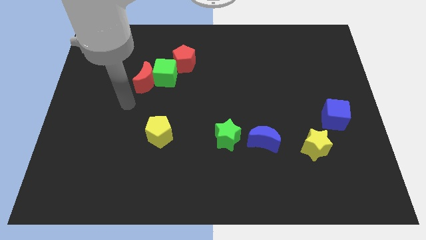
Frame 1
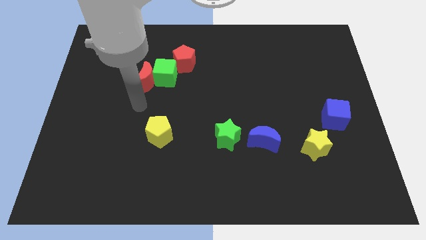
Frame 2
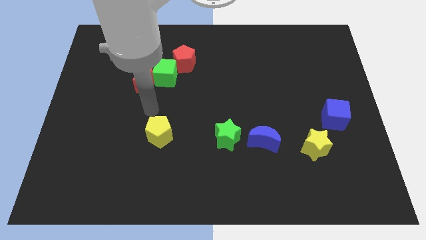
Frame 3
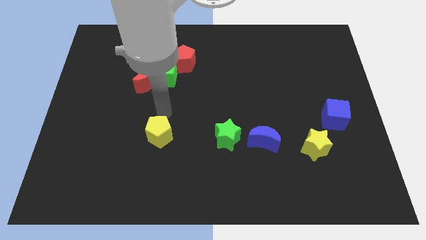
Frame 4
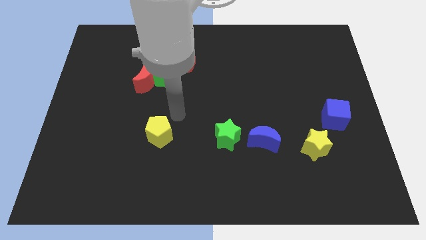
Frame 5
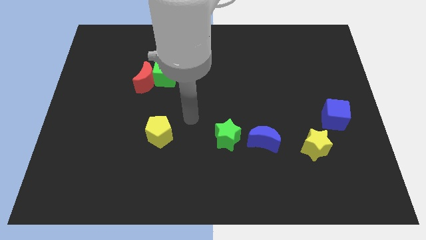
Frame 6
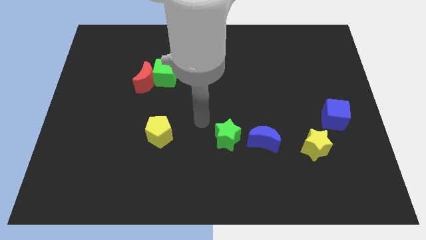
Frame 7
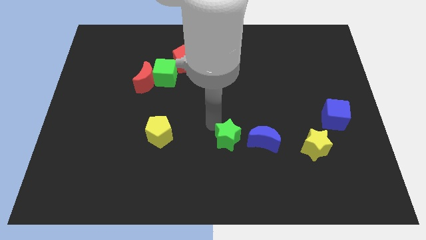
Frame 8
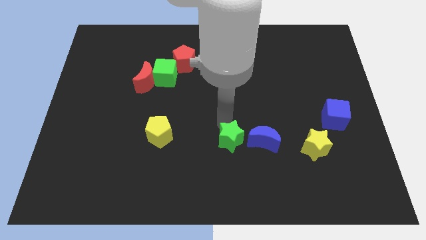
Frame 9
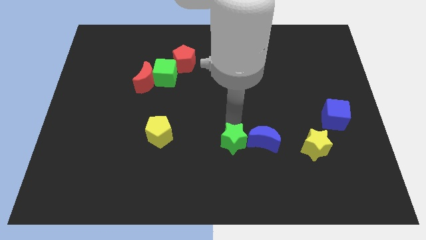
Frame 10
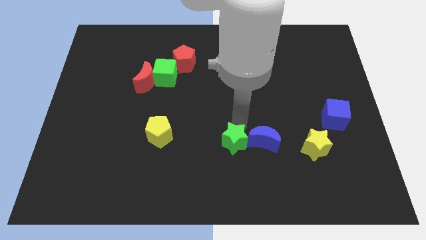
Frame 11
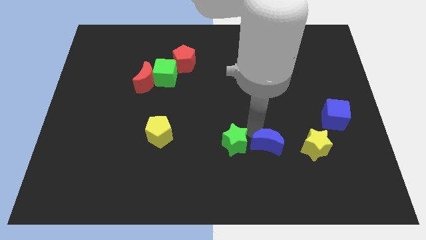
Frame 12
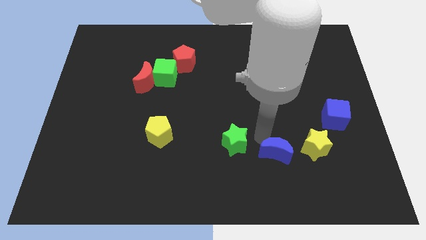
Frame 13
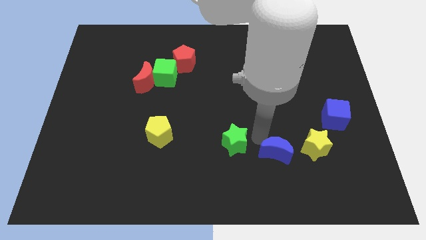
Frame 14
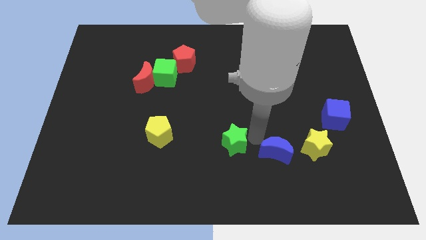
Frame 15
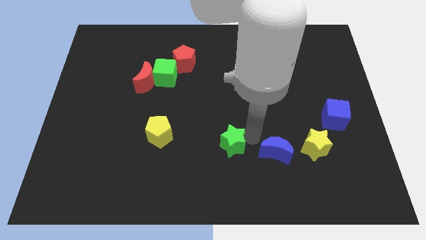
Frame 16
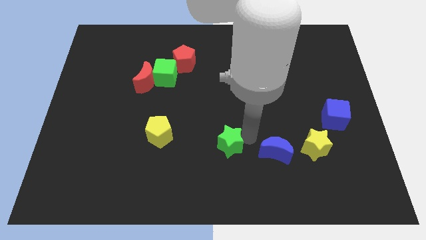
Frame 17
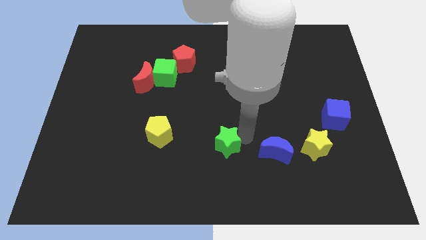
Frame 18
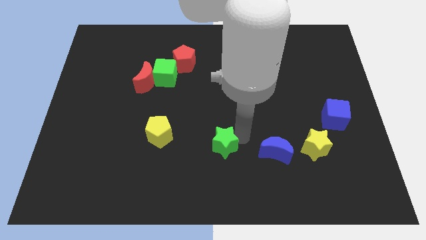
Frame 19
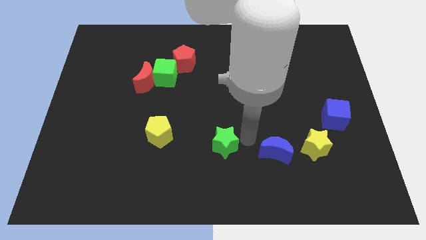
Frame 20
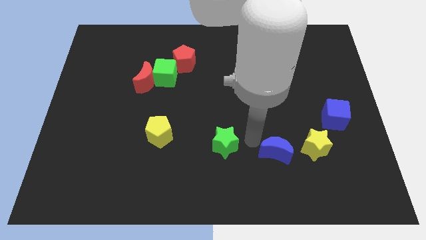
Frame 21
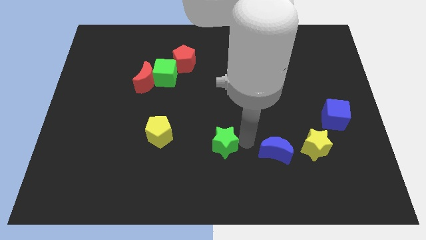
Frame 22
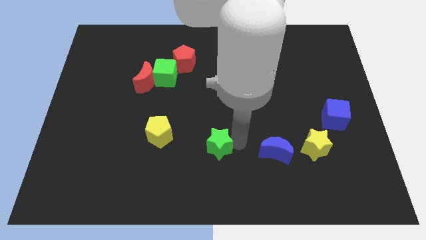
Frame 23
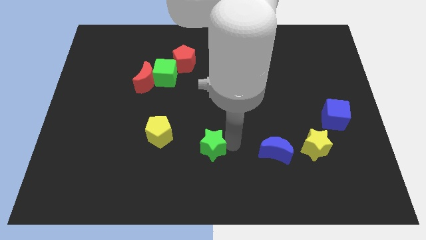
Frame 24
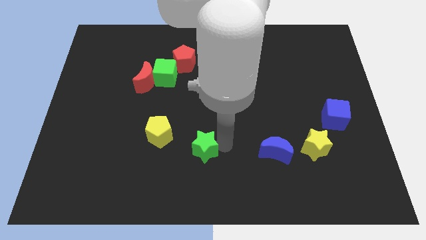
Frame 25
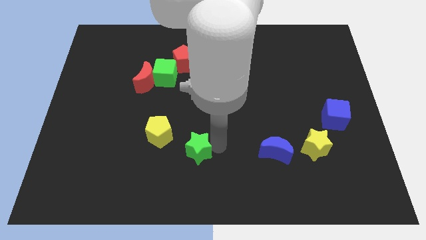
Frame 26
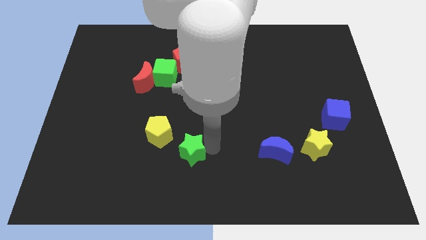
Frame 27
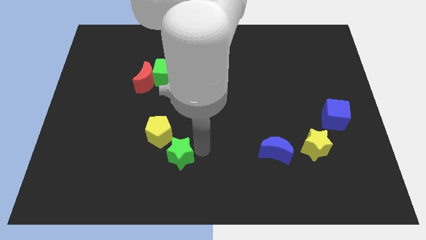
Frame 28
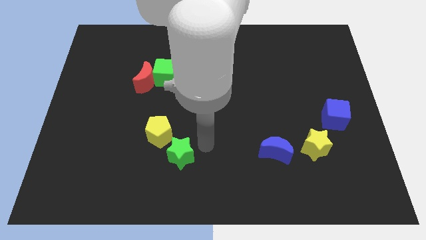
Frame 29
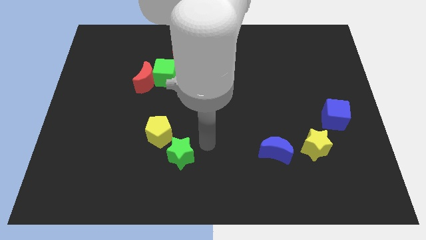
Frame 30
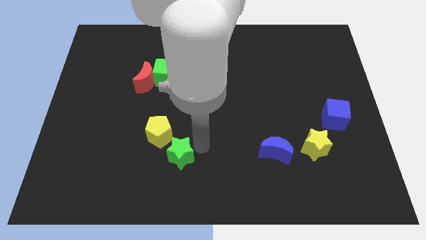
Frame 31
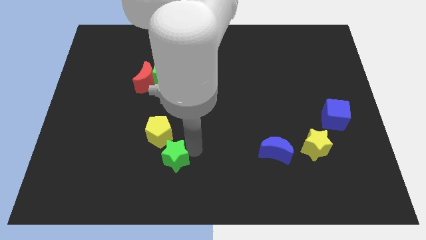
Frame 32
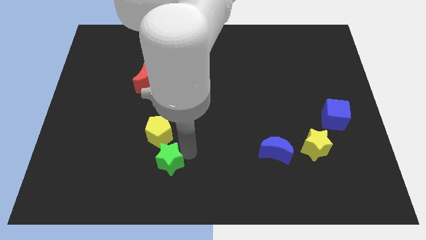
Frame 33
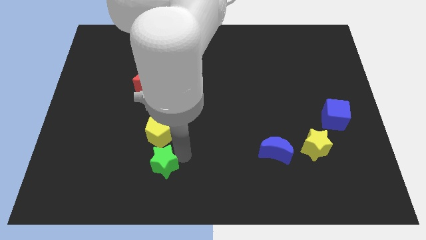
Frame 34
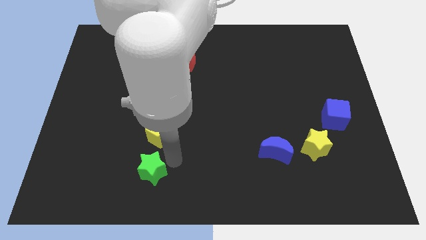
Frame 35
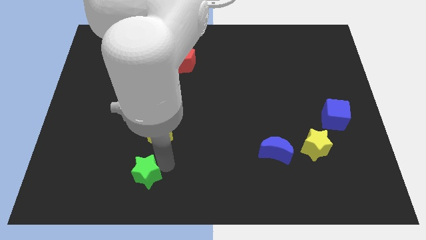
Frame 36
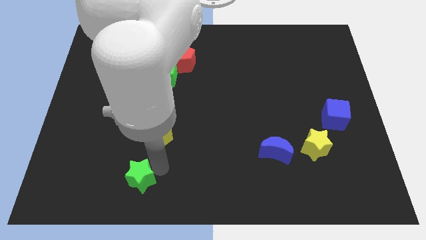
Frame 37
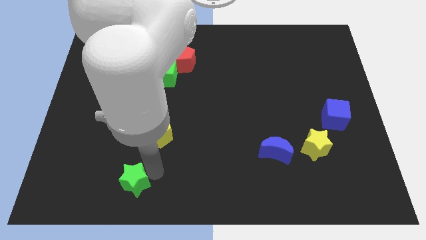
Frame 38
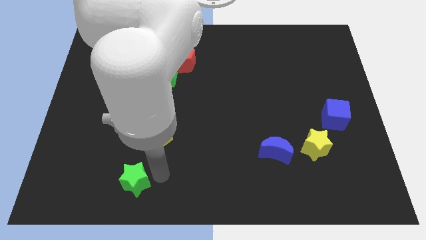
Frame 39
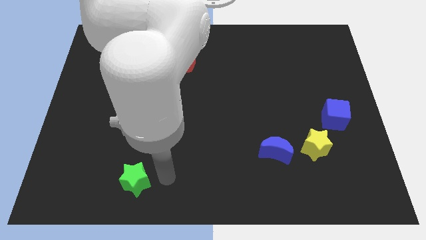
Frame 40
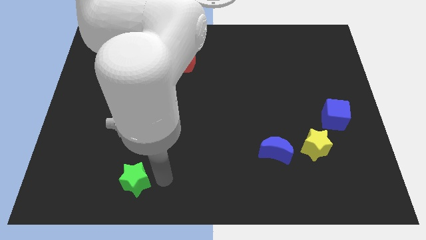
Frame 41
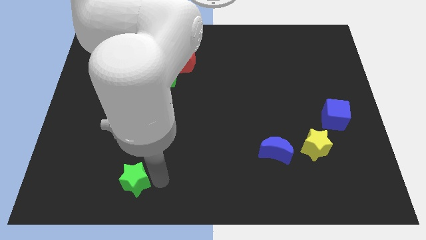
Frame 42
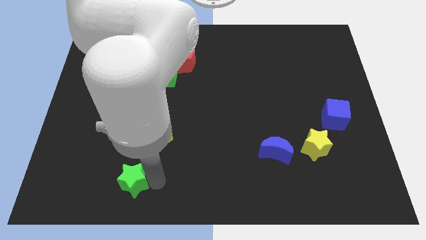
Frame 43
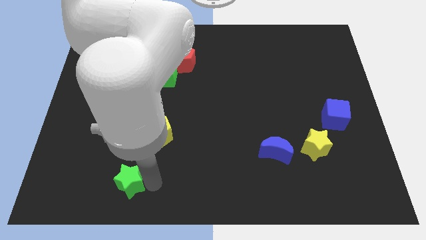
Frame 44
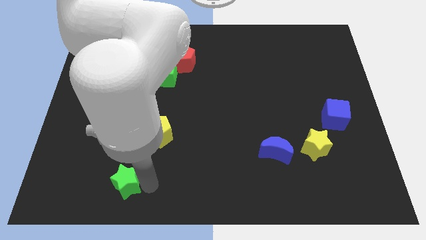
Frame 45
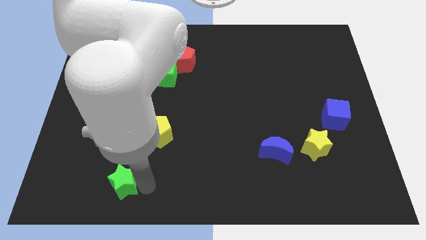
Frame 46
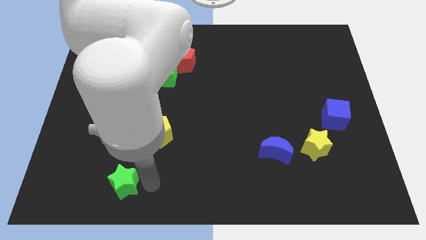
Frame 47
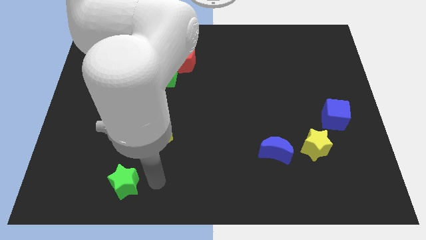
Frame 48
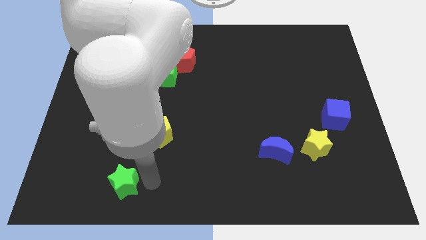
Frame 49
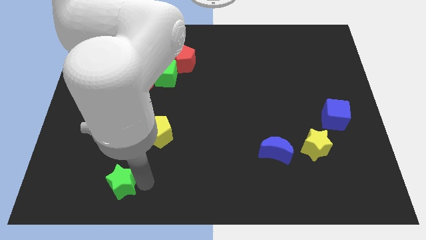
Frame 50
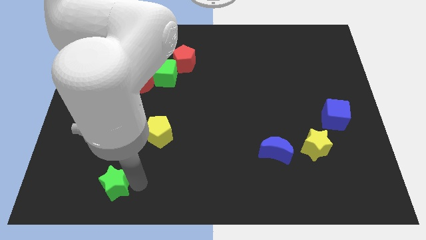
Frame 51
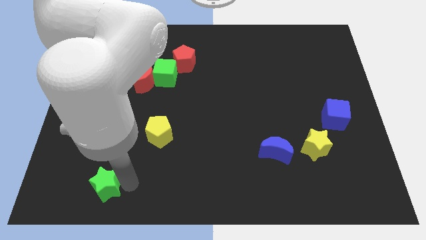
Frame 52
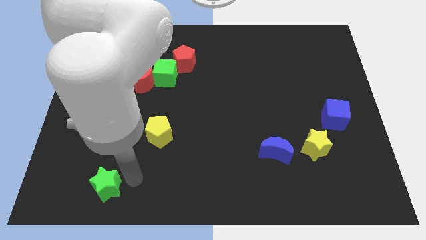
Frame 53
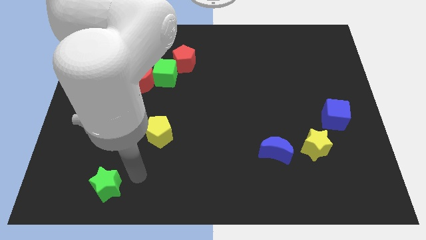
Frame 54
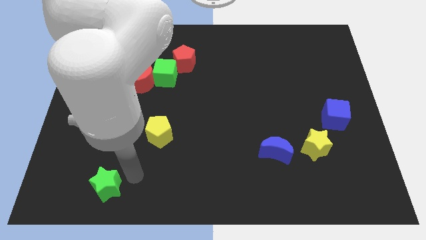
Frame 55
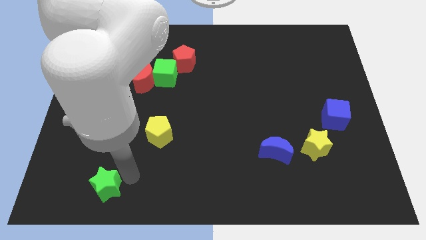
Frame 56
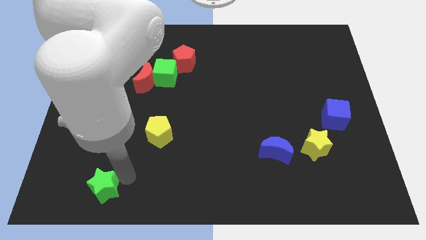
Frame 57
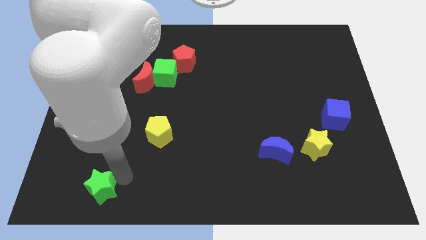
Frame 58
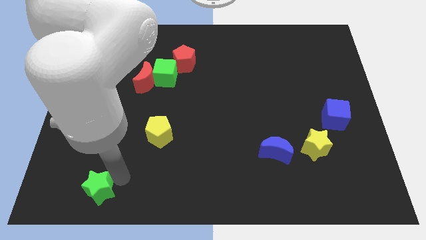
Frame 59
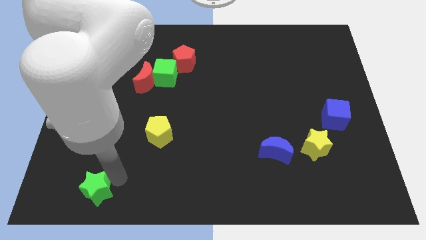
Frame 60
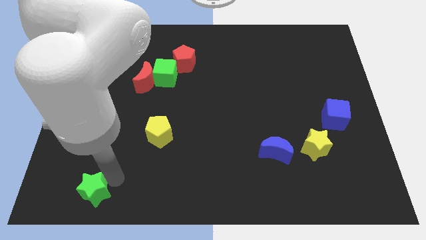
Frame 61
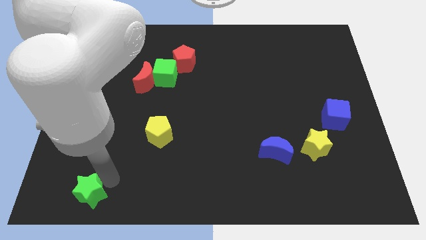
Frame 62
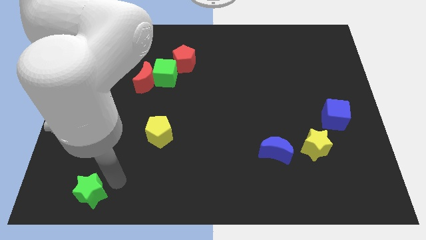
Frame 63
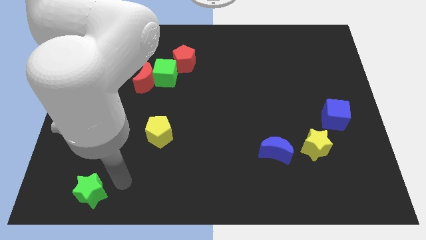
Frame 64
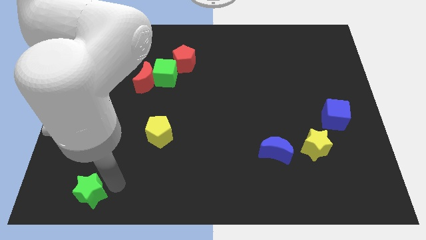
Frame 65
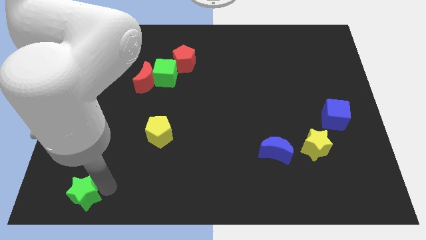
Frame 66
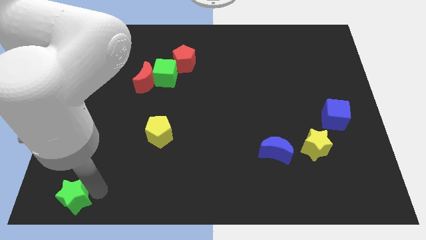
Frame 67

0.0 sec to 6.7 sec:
put the green star to the bottom left

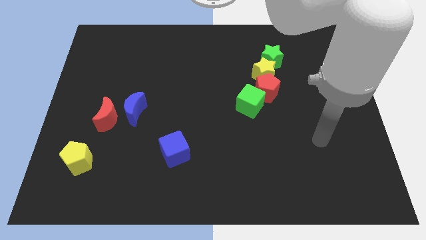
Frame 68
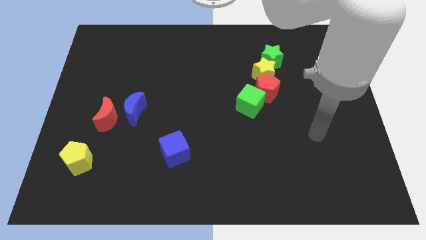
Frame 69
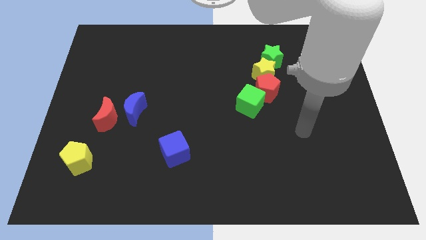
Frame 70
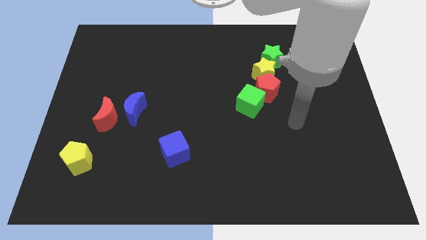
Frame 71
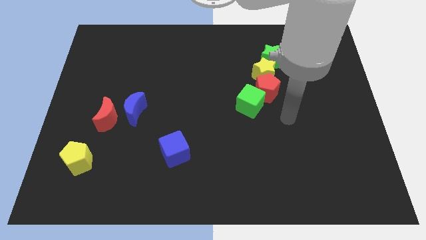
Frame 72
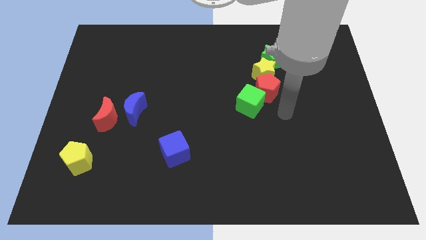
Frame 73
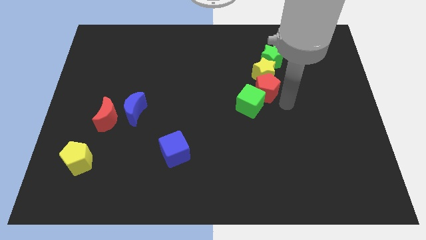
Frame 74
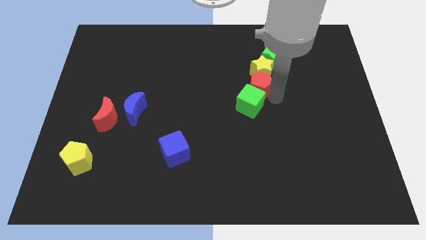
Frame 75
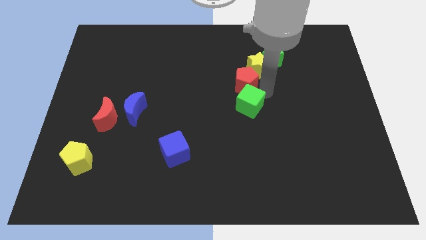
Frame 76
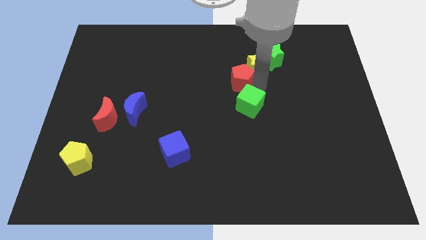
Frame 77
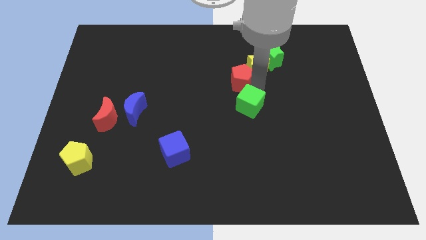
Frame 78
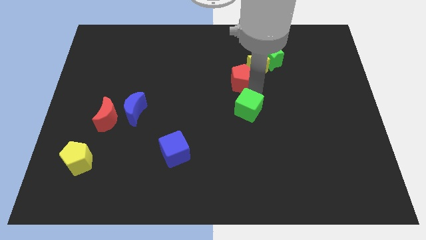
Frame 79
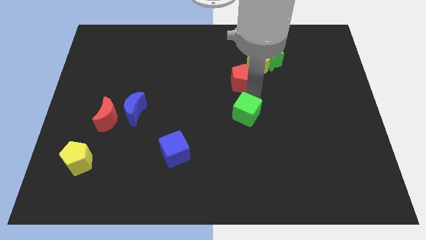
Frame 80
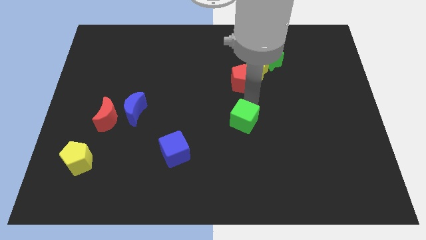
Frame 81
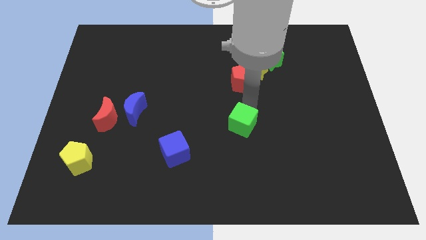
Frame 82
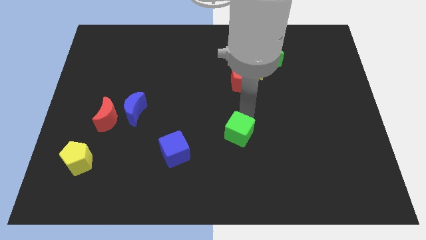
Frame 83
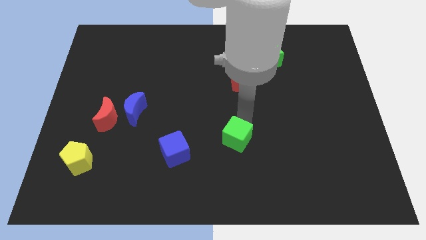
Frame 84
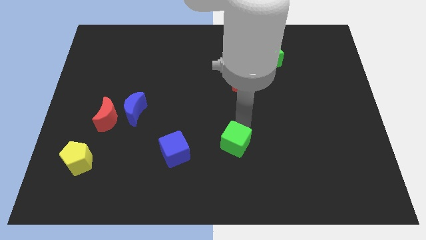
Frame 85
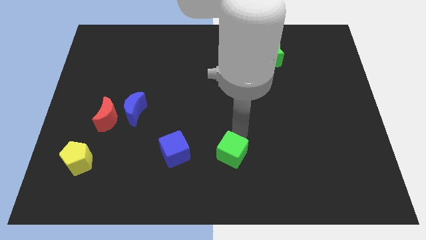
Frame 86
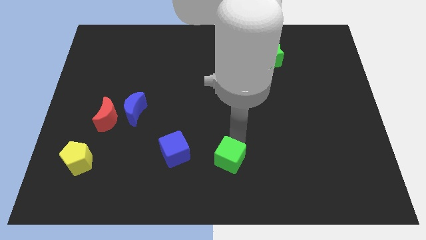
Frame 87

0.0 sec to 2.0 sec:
push the green cube to the bottom
